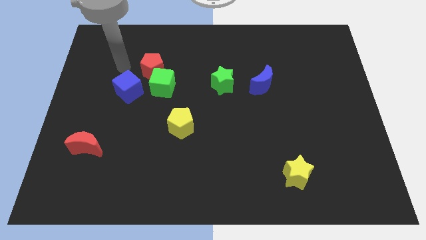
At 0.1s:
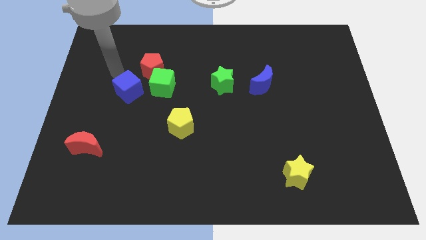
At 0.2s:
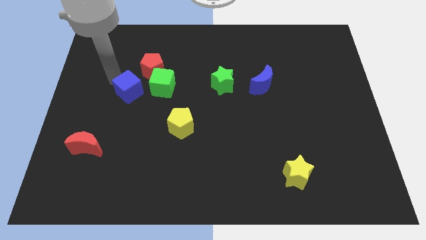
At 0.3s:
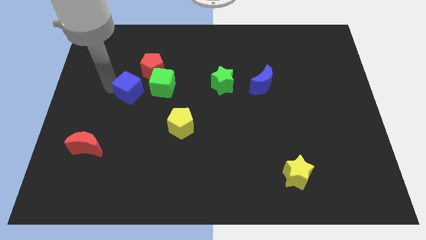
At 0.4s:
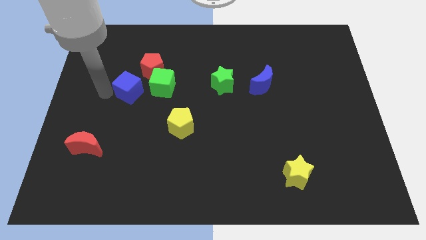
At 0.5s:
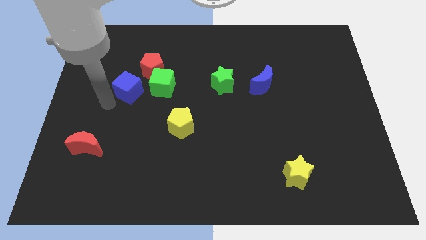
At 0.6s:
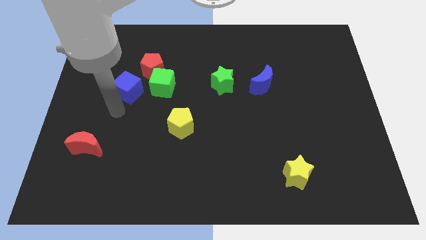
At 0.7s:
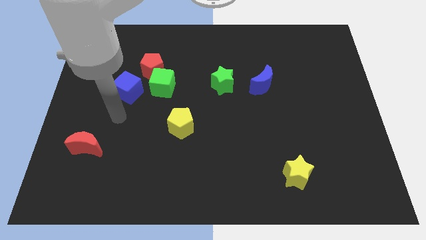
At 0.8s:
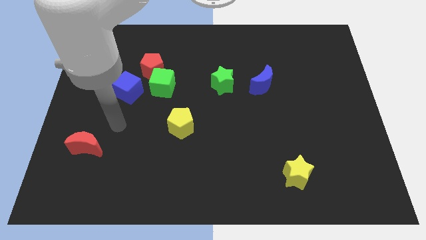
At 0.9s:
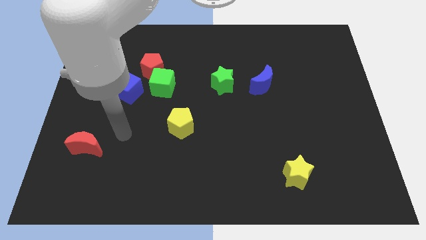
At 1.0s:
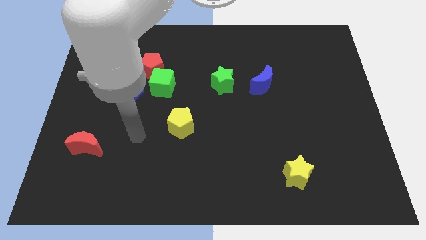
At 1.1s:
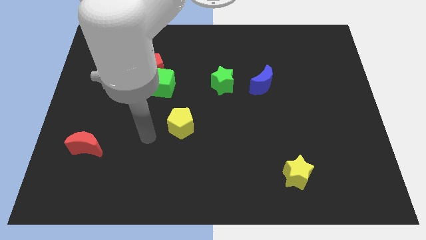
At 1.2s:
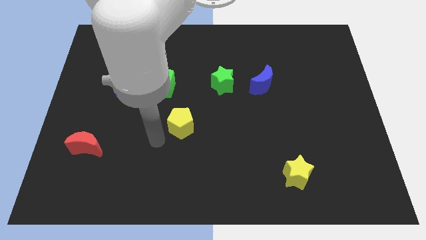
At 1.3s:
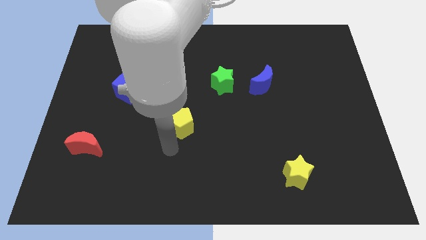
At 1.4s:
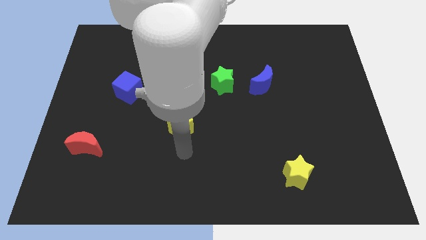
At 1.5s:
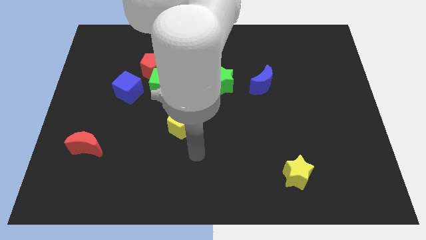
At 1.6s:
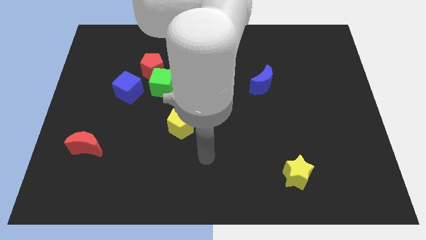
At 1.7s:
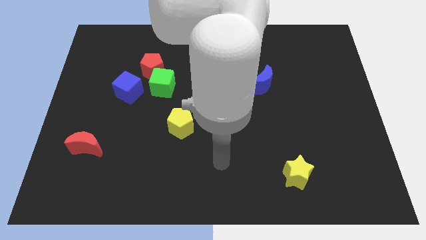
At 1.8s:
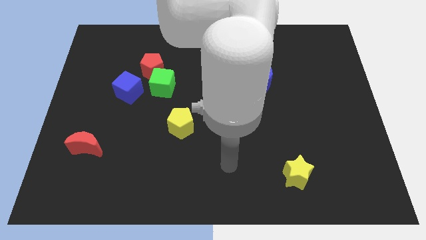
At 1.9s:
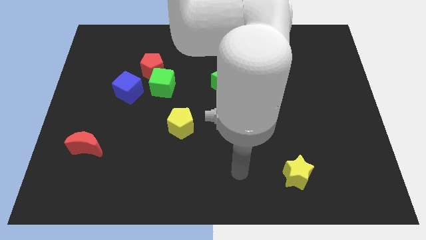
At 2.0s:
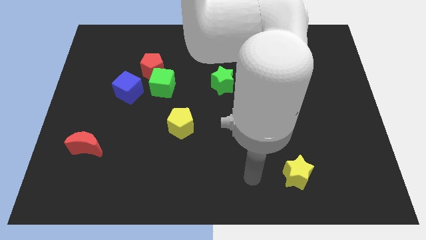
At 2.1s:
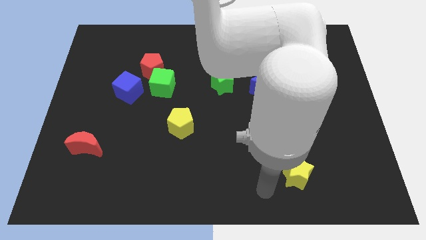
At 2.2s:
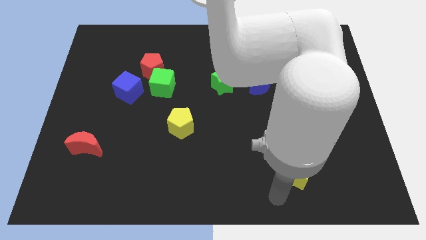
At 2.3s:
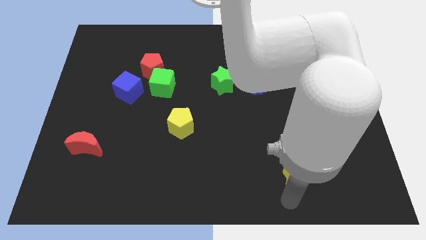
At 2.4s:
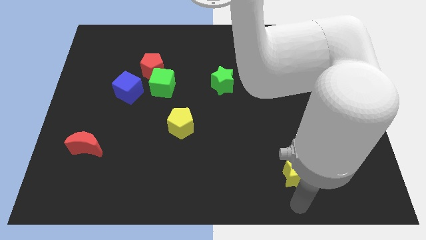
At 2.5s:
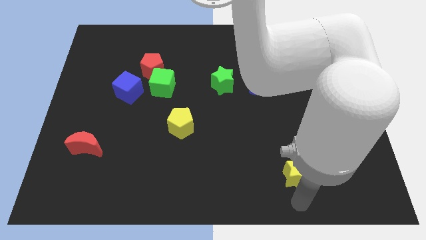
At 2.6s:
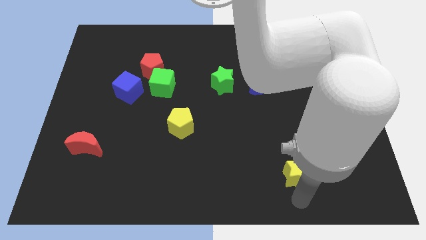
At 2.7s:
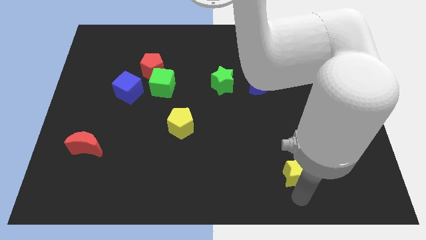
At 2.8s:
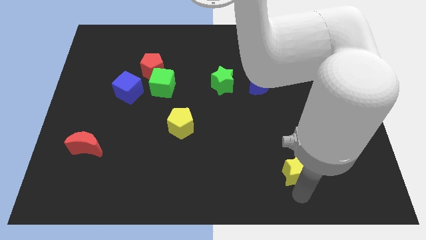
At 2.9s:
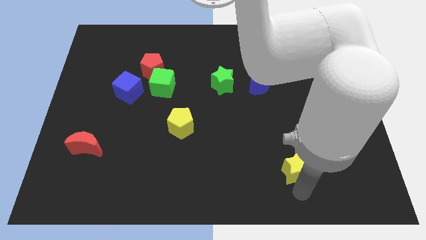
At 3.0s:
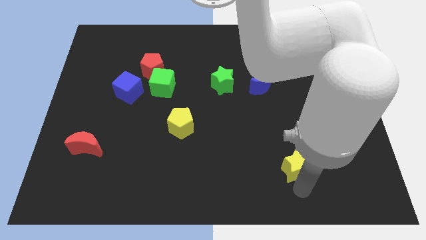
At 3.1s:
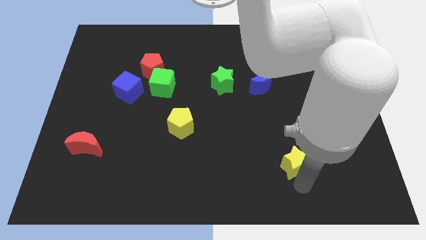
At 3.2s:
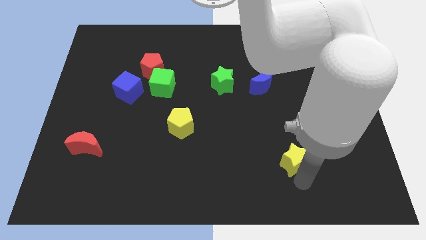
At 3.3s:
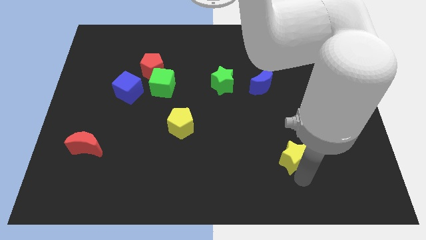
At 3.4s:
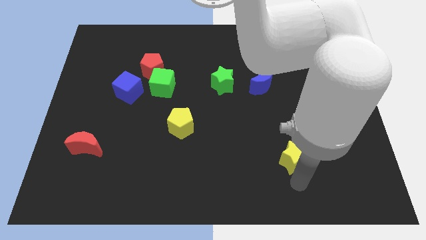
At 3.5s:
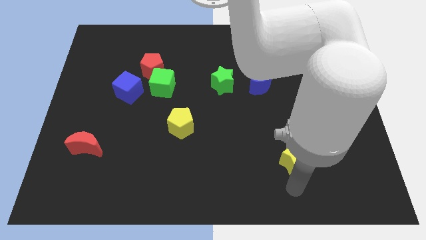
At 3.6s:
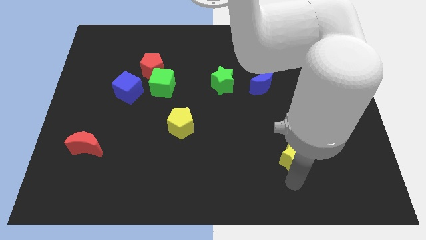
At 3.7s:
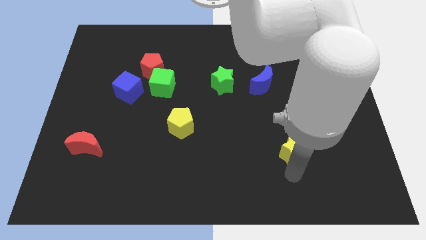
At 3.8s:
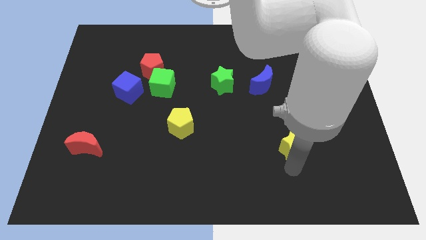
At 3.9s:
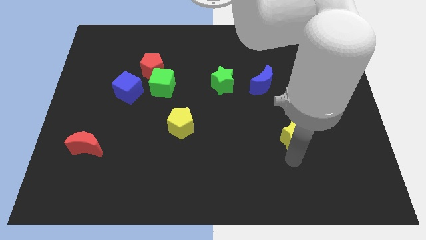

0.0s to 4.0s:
slightly slide the yellow star upwards

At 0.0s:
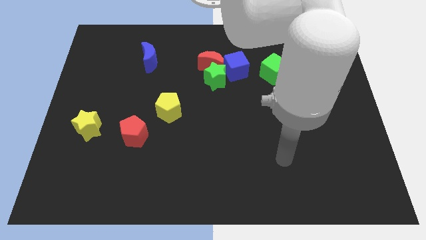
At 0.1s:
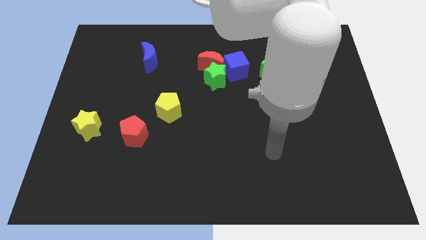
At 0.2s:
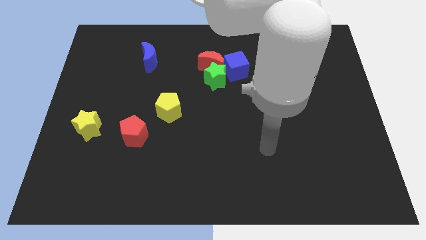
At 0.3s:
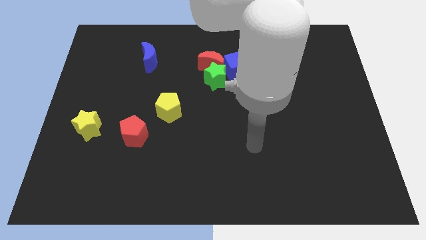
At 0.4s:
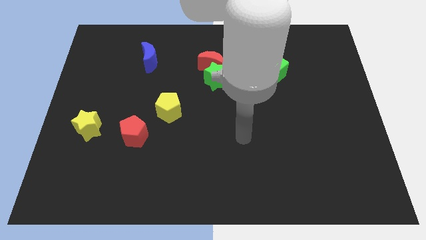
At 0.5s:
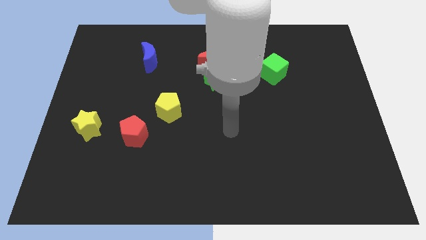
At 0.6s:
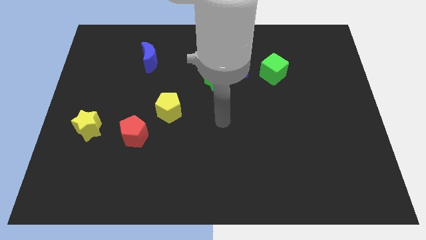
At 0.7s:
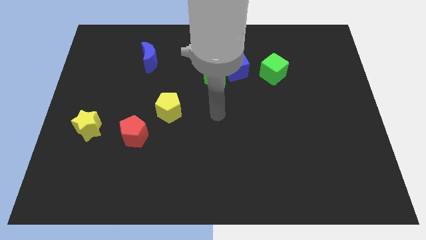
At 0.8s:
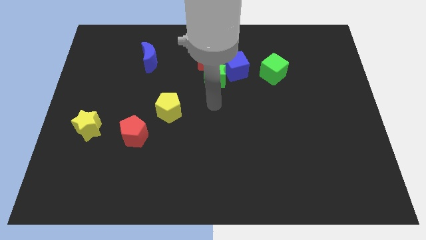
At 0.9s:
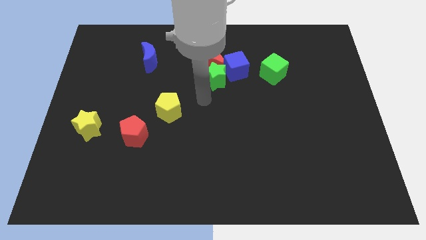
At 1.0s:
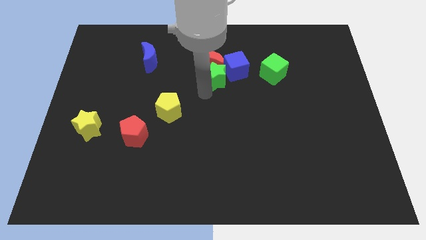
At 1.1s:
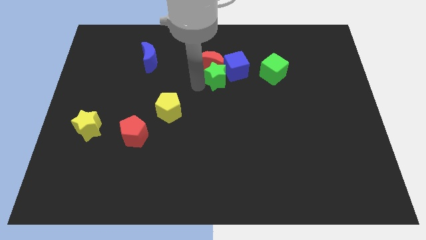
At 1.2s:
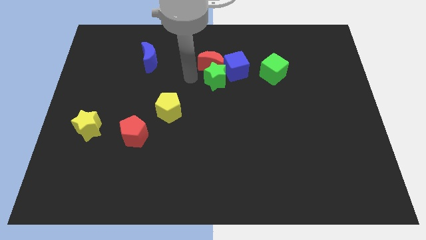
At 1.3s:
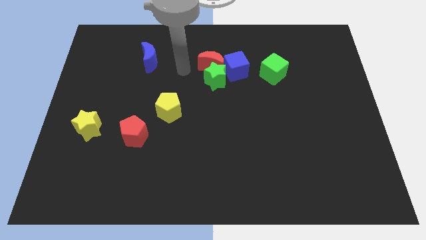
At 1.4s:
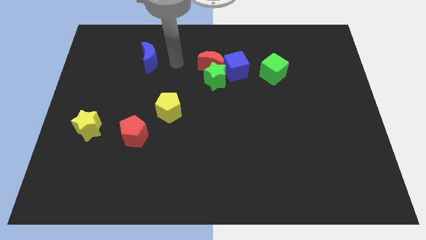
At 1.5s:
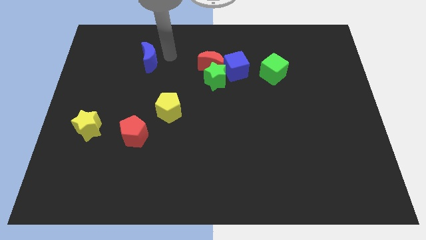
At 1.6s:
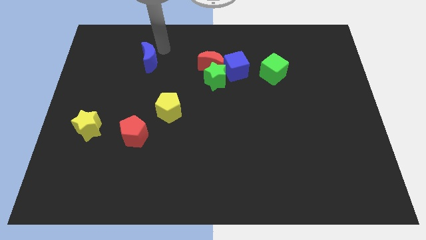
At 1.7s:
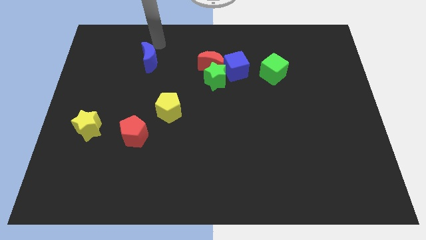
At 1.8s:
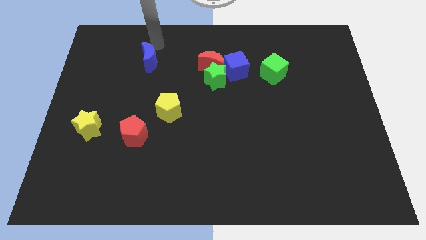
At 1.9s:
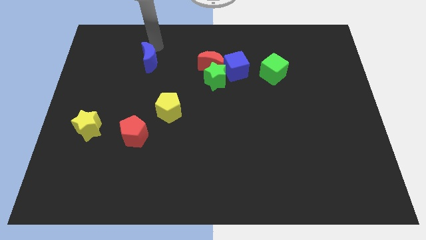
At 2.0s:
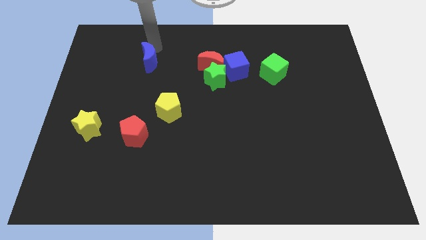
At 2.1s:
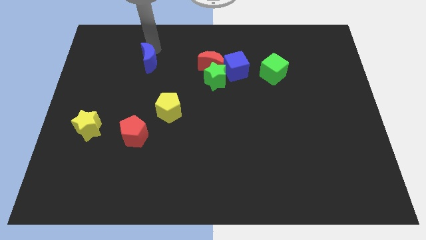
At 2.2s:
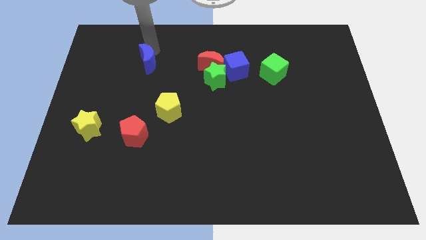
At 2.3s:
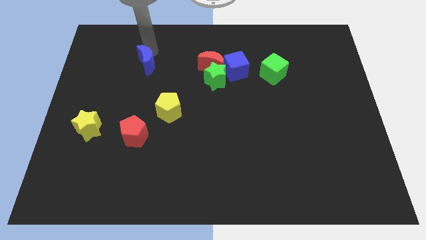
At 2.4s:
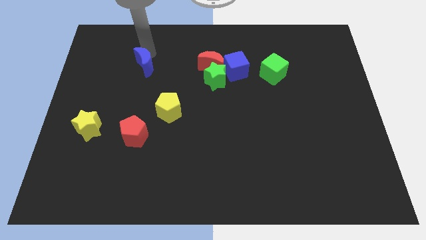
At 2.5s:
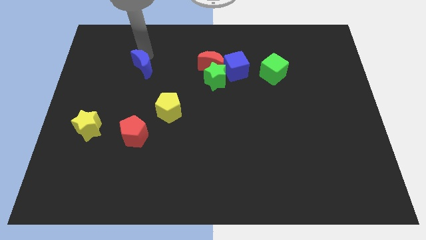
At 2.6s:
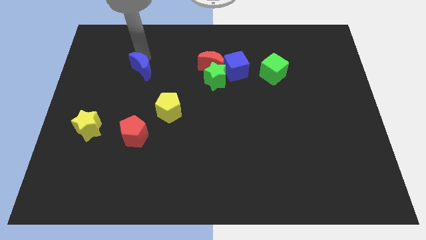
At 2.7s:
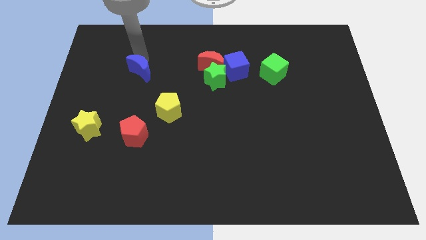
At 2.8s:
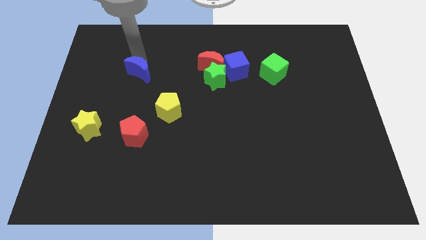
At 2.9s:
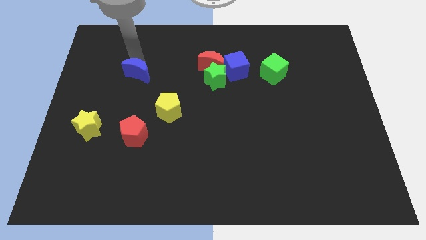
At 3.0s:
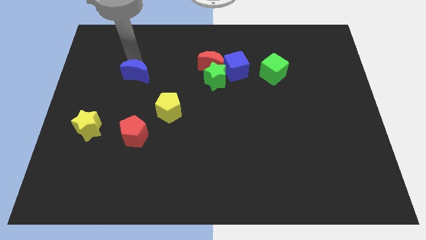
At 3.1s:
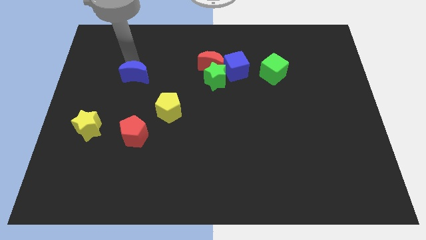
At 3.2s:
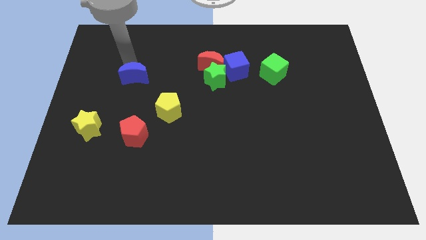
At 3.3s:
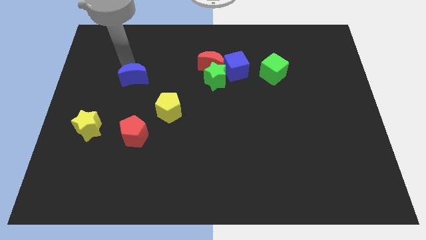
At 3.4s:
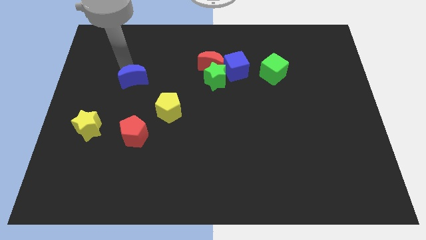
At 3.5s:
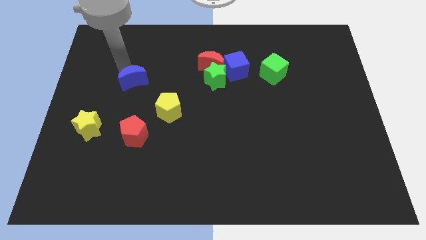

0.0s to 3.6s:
push the blue moon a little down

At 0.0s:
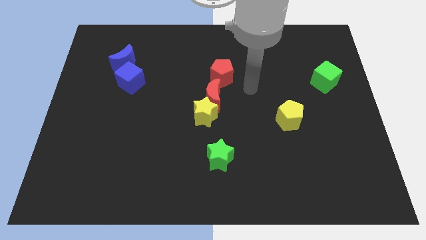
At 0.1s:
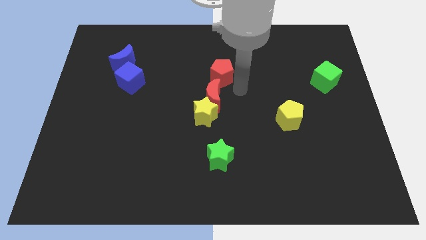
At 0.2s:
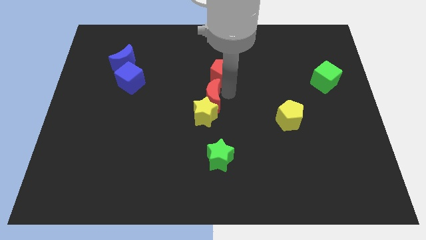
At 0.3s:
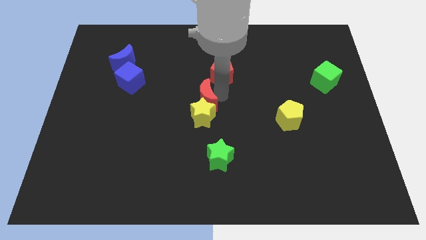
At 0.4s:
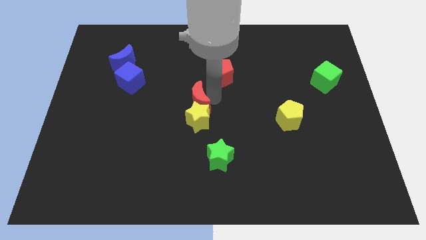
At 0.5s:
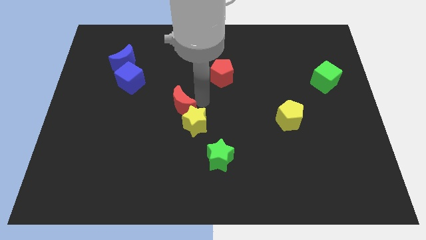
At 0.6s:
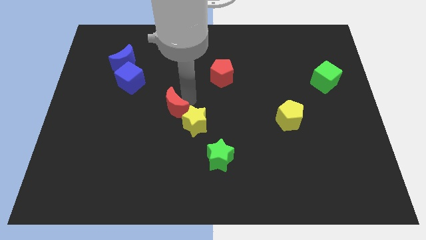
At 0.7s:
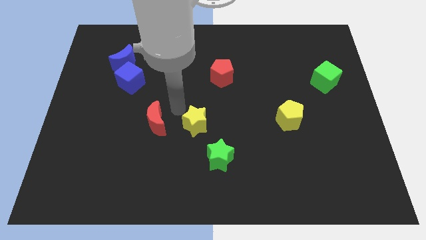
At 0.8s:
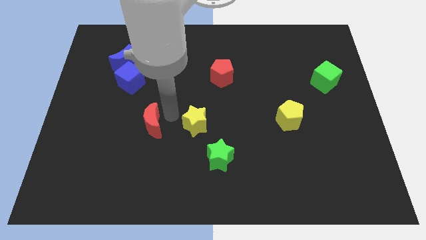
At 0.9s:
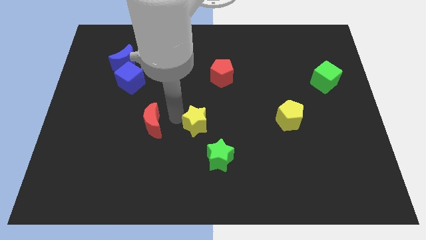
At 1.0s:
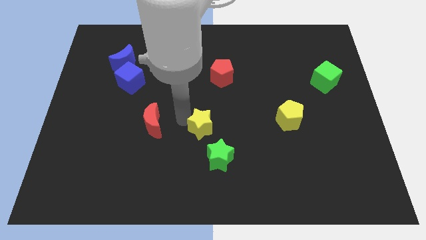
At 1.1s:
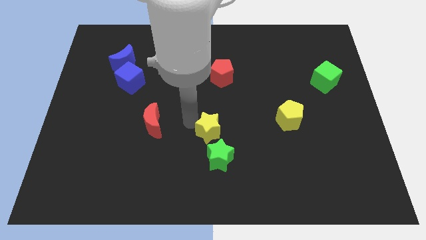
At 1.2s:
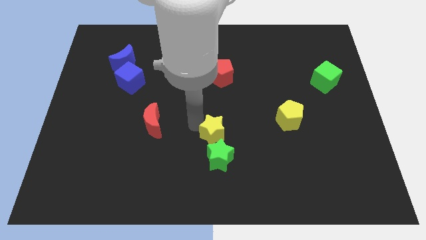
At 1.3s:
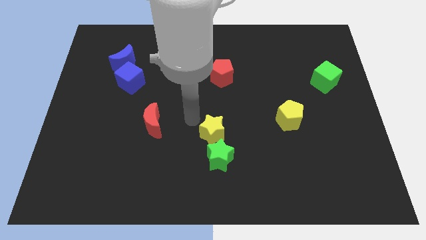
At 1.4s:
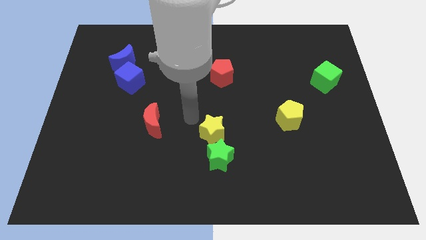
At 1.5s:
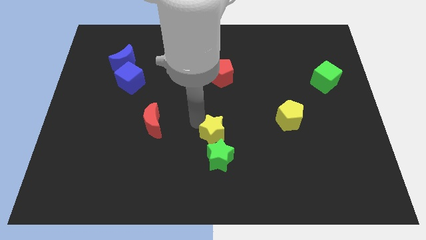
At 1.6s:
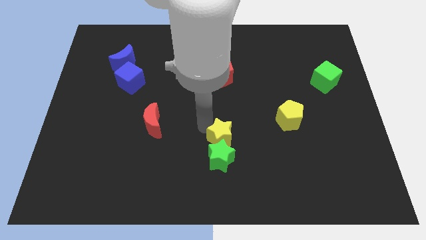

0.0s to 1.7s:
slide the yellow star downwards and then to the right a little
